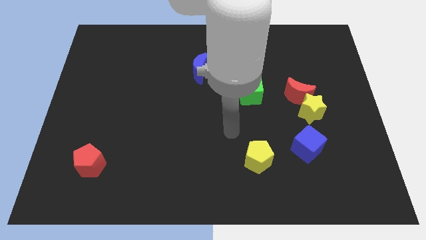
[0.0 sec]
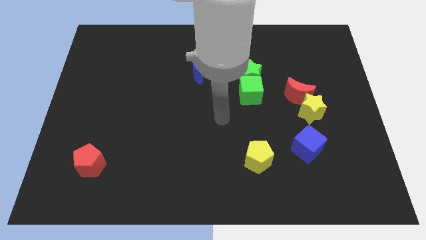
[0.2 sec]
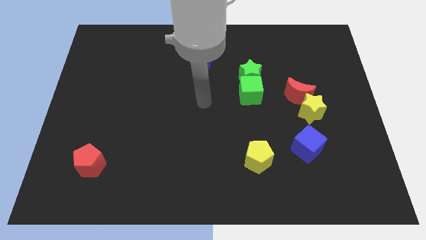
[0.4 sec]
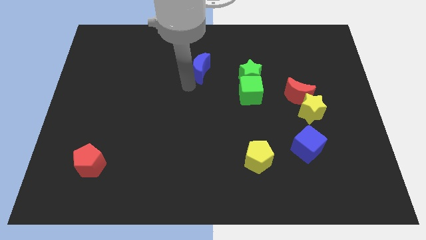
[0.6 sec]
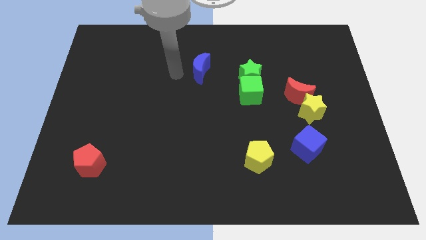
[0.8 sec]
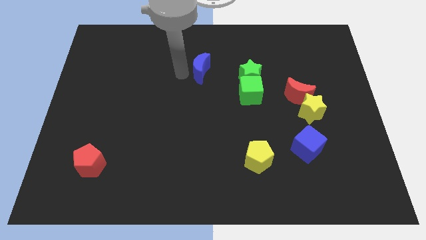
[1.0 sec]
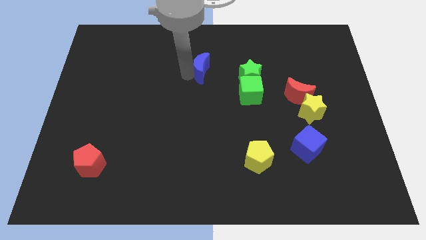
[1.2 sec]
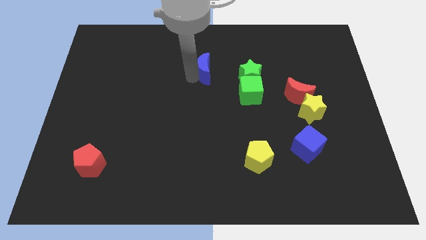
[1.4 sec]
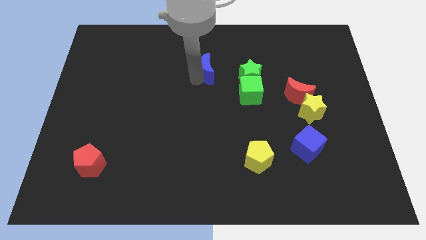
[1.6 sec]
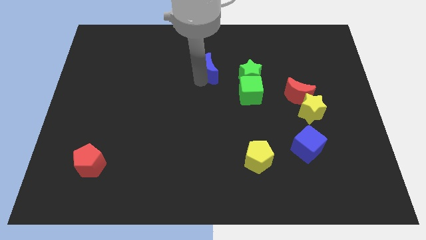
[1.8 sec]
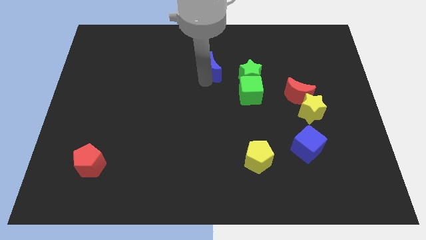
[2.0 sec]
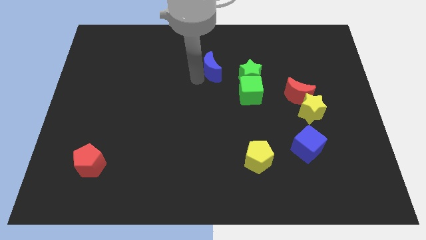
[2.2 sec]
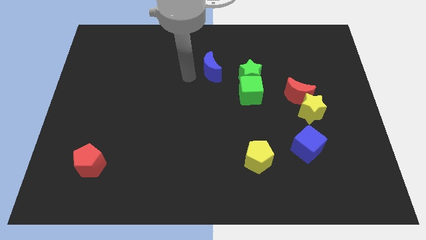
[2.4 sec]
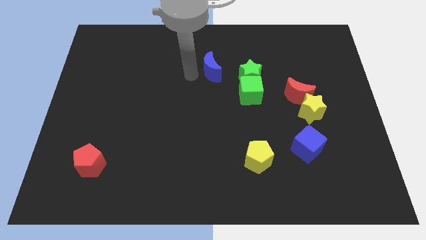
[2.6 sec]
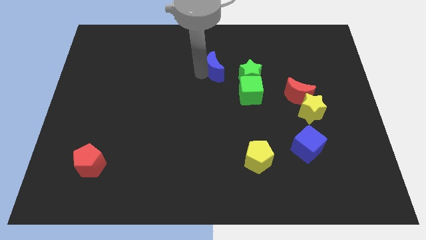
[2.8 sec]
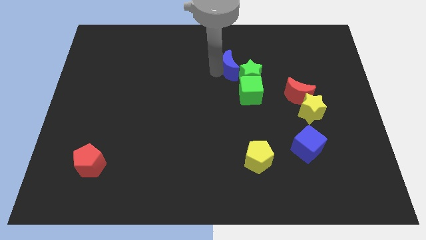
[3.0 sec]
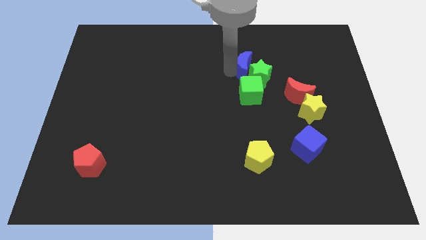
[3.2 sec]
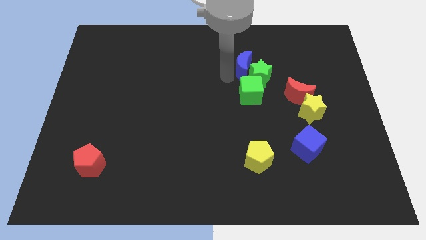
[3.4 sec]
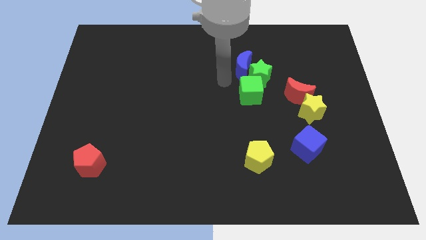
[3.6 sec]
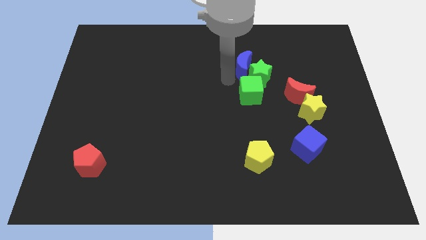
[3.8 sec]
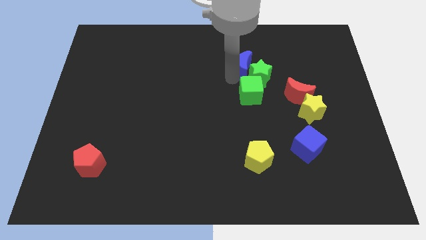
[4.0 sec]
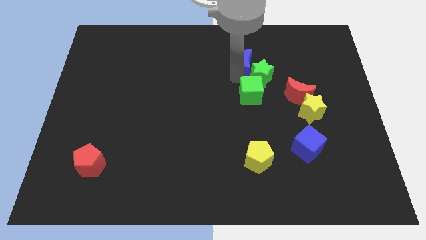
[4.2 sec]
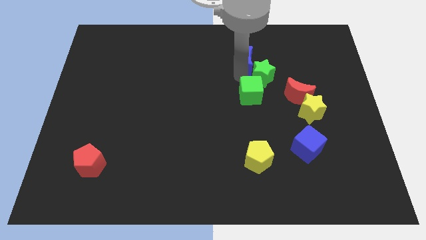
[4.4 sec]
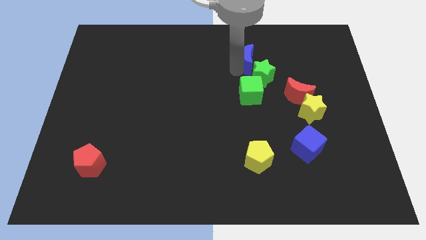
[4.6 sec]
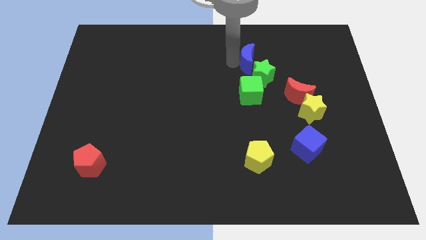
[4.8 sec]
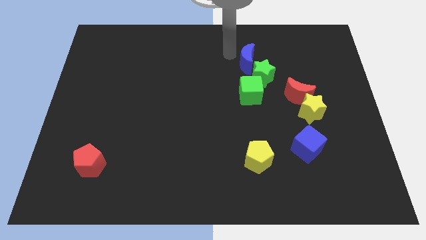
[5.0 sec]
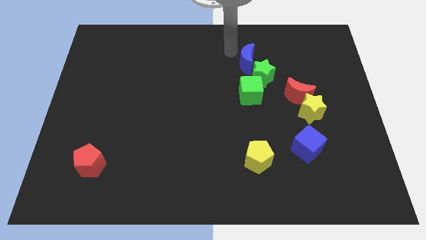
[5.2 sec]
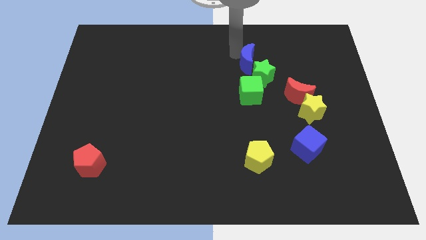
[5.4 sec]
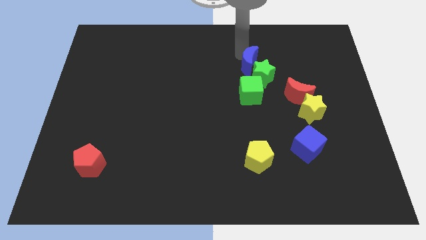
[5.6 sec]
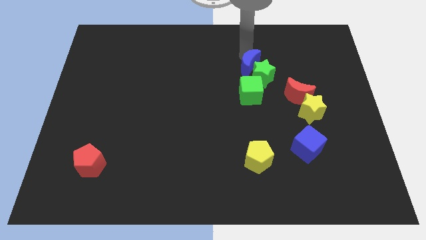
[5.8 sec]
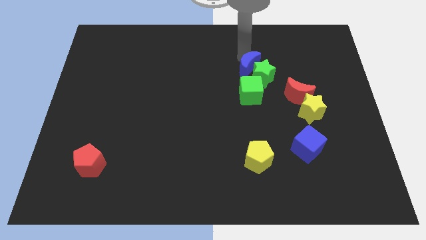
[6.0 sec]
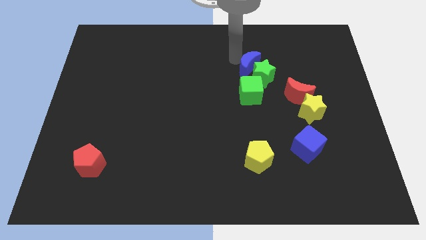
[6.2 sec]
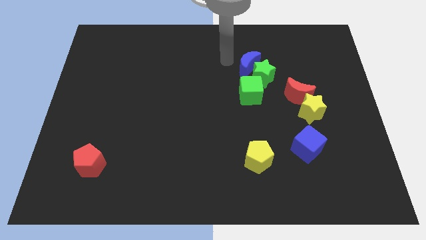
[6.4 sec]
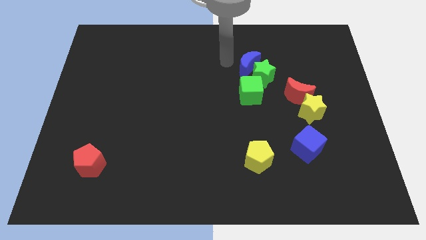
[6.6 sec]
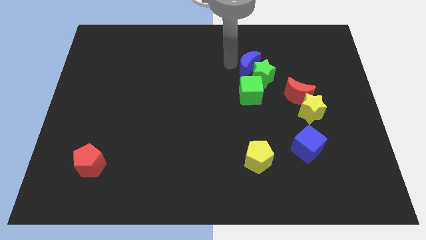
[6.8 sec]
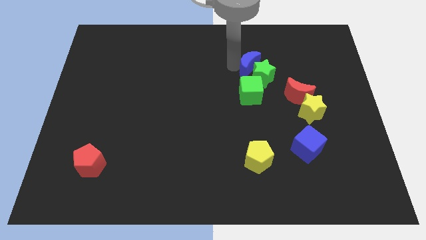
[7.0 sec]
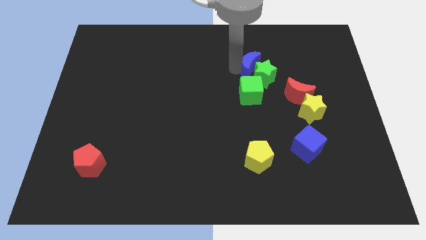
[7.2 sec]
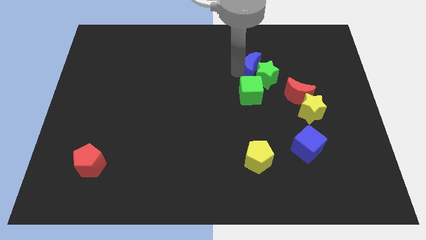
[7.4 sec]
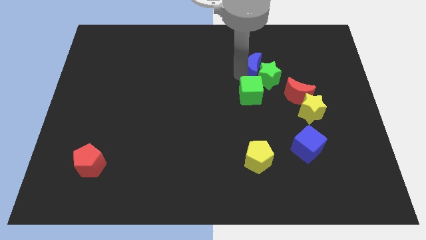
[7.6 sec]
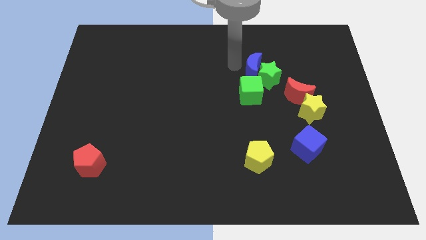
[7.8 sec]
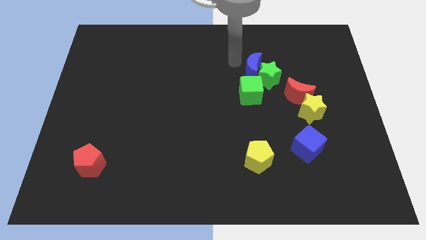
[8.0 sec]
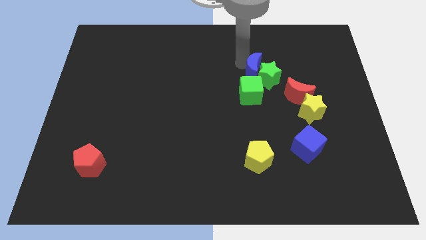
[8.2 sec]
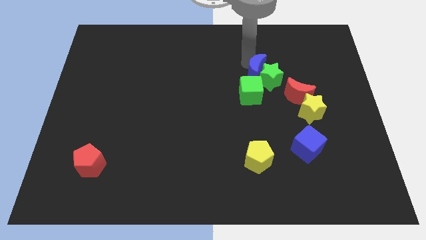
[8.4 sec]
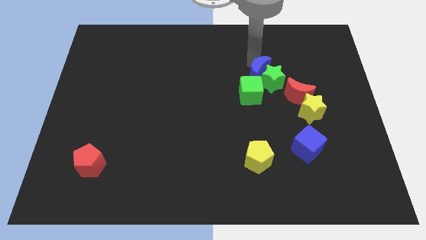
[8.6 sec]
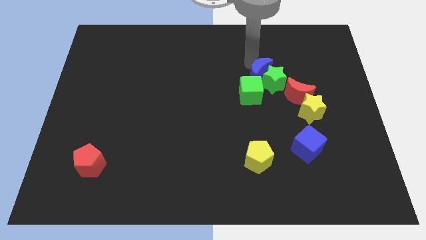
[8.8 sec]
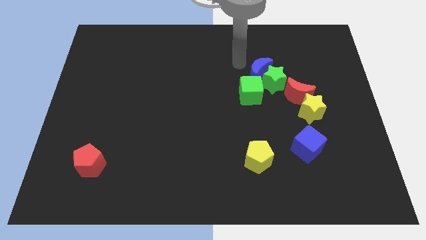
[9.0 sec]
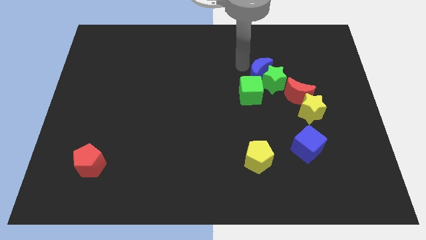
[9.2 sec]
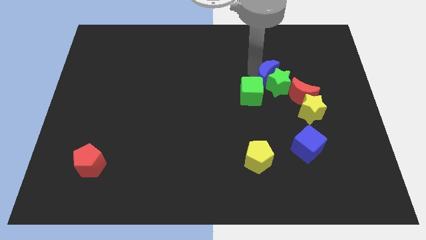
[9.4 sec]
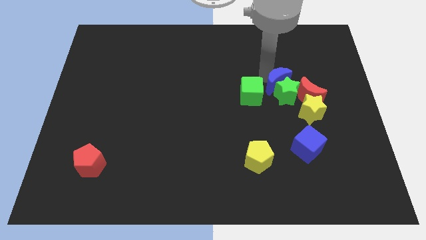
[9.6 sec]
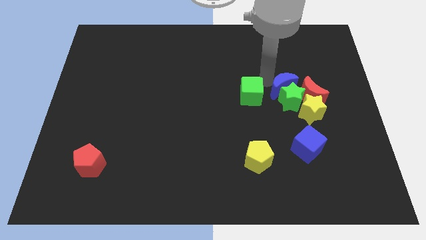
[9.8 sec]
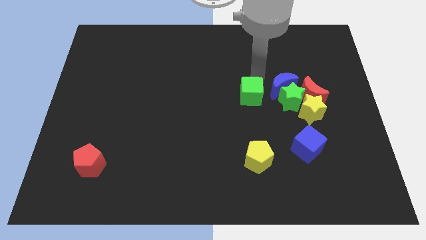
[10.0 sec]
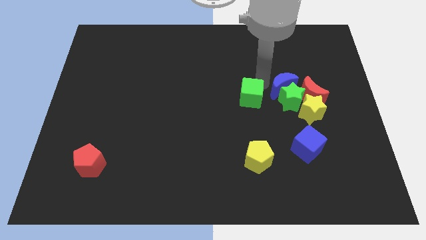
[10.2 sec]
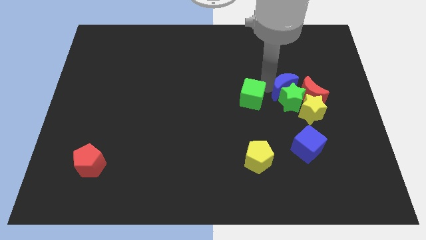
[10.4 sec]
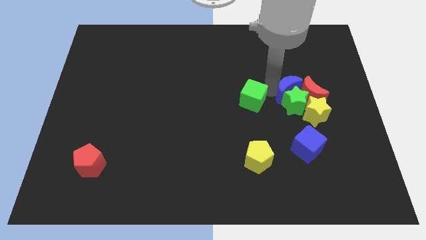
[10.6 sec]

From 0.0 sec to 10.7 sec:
put the blue moon next to the red moon

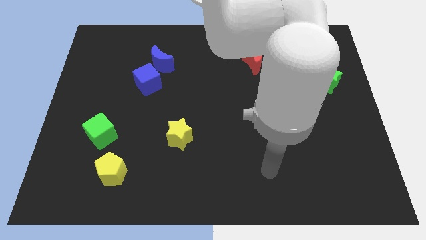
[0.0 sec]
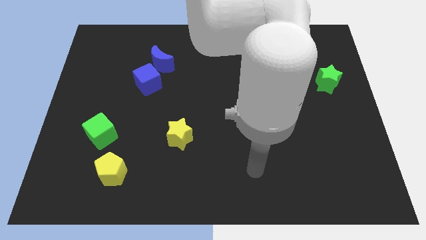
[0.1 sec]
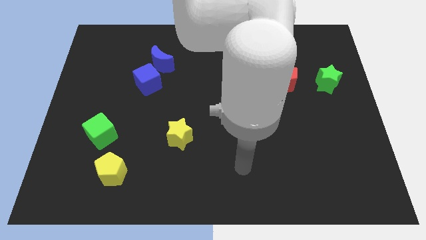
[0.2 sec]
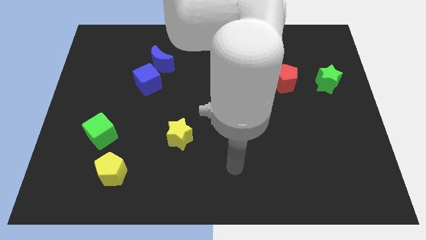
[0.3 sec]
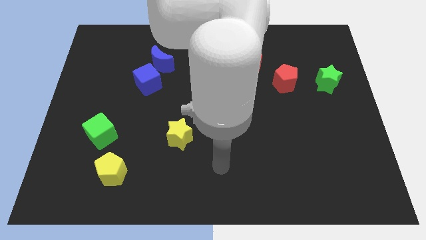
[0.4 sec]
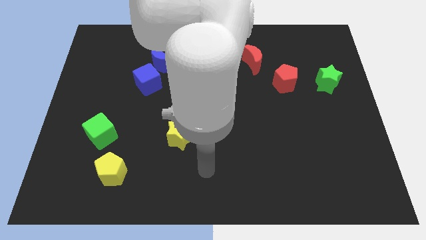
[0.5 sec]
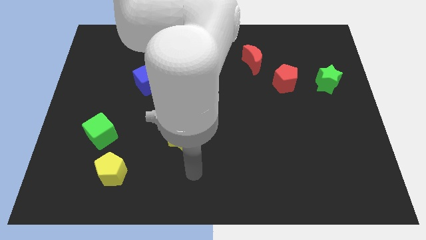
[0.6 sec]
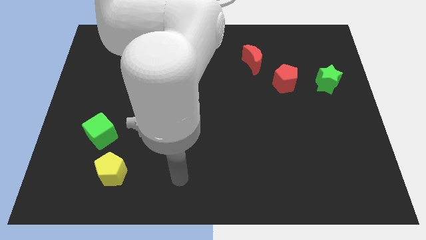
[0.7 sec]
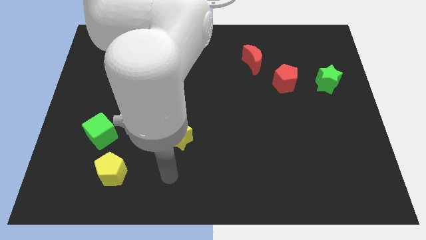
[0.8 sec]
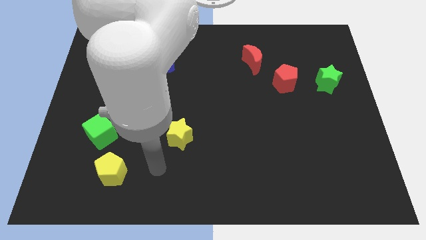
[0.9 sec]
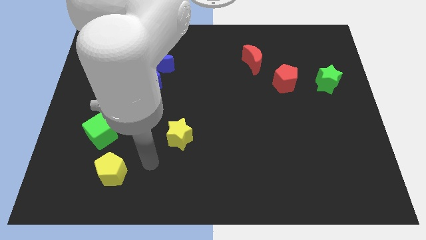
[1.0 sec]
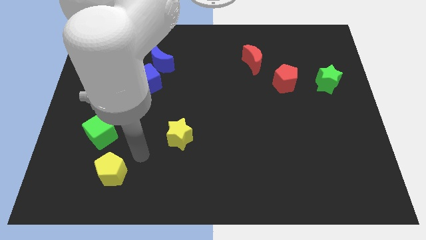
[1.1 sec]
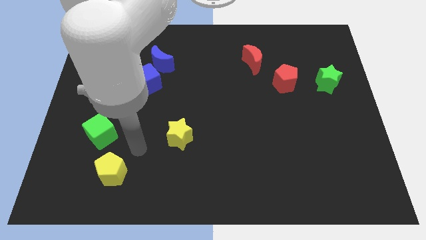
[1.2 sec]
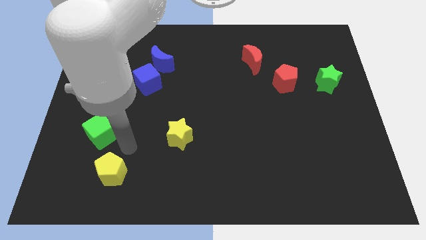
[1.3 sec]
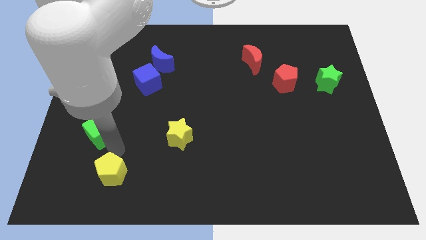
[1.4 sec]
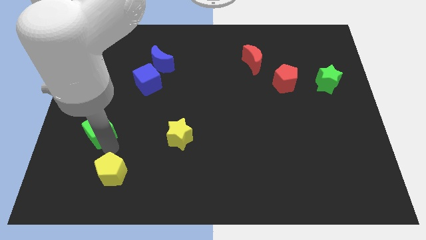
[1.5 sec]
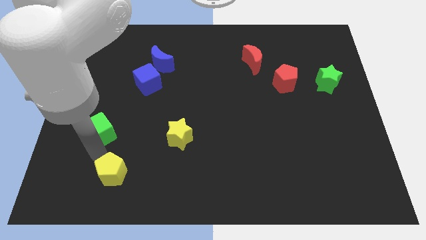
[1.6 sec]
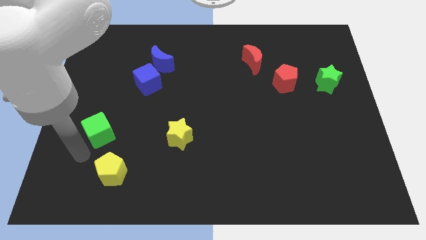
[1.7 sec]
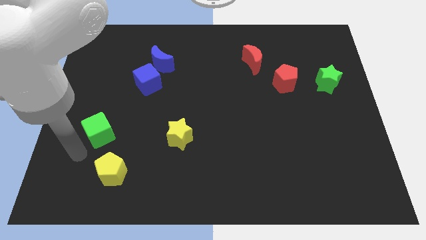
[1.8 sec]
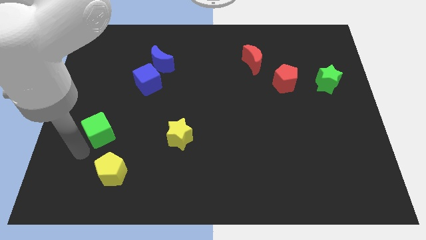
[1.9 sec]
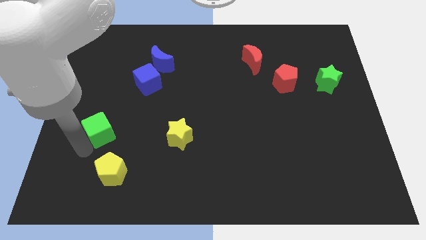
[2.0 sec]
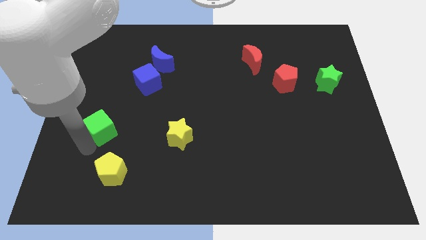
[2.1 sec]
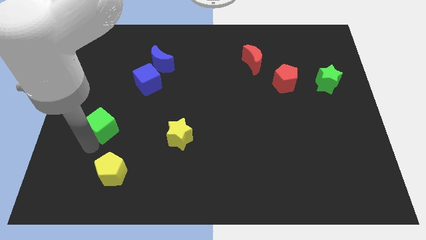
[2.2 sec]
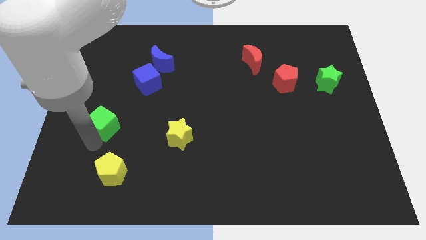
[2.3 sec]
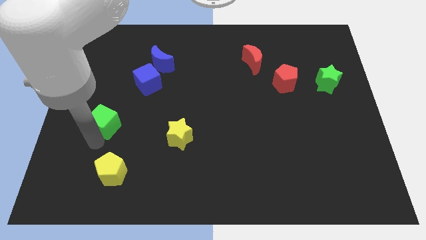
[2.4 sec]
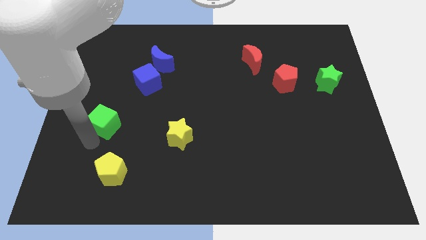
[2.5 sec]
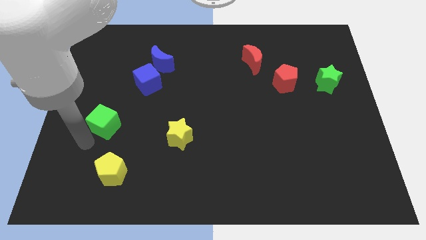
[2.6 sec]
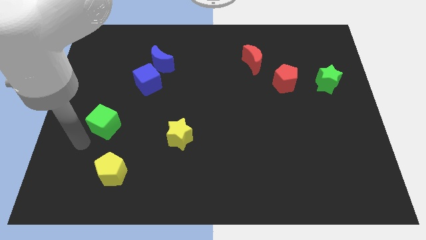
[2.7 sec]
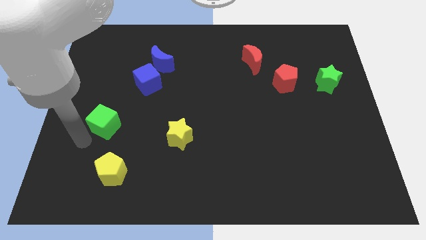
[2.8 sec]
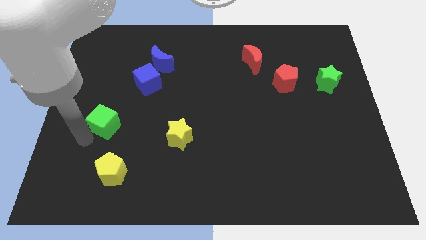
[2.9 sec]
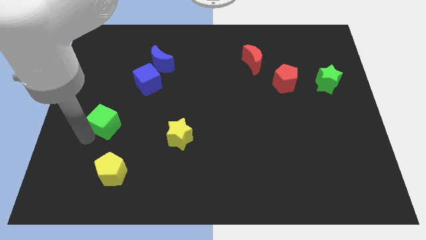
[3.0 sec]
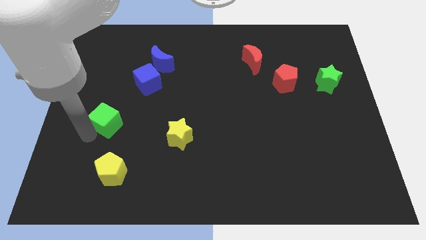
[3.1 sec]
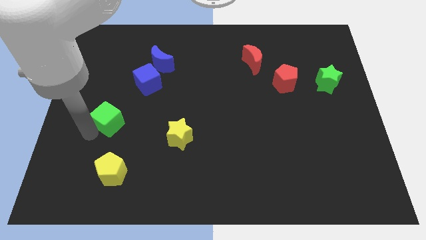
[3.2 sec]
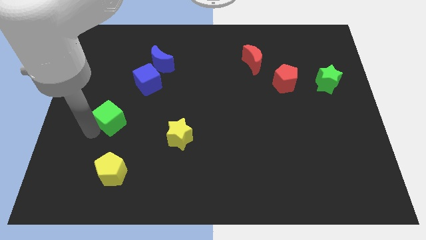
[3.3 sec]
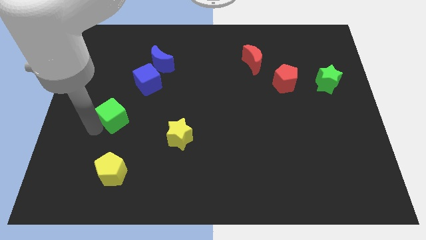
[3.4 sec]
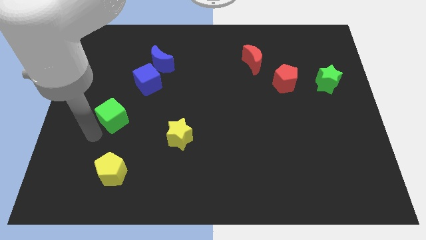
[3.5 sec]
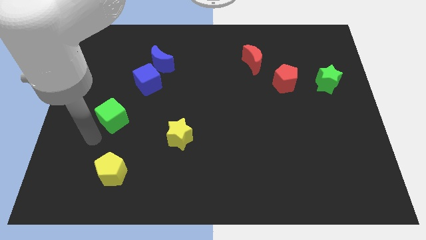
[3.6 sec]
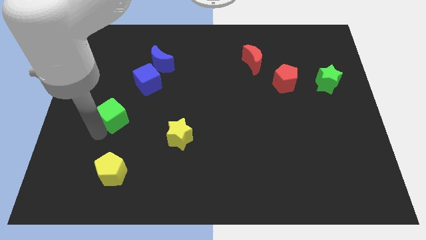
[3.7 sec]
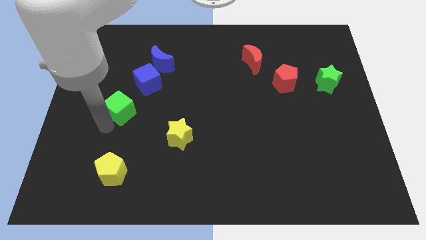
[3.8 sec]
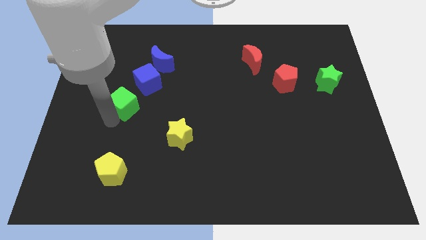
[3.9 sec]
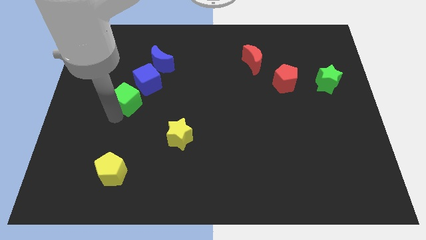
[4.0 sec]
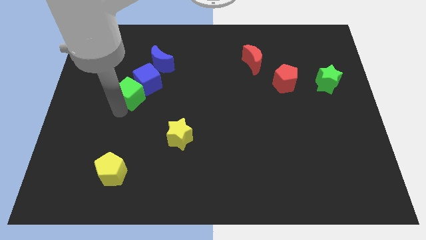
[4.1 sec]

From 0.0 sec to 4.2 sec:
push the green cube to the blue cube
